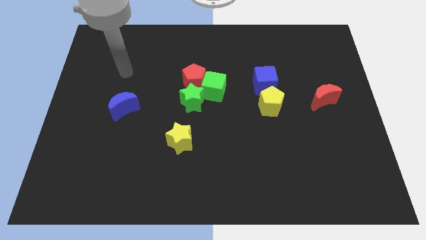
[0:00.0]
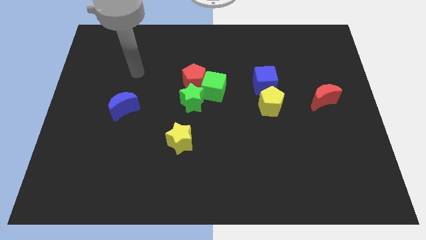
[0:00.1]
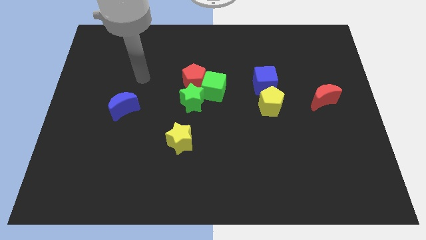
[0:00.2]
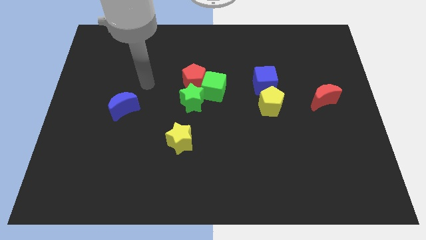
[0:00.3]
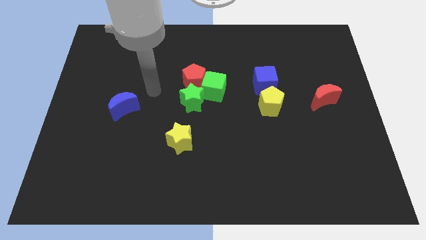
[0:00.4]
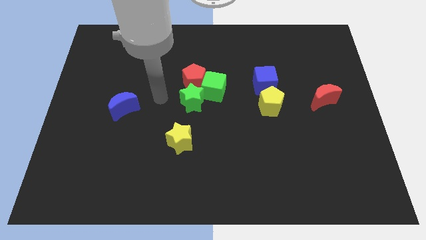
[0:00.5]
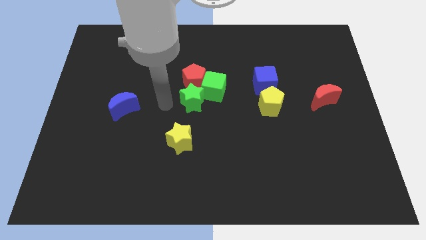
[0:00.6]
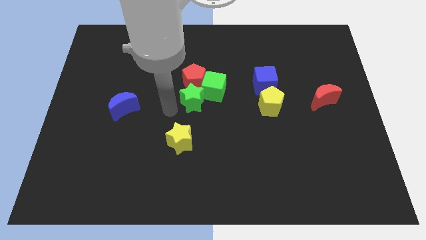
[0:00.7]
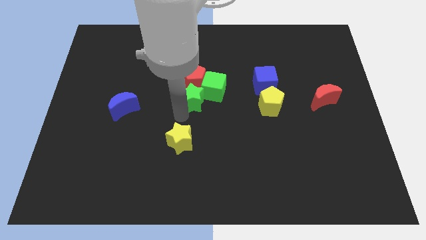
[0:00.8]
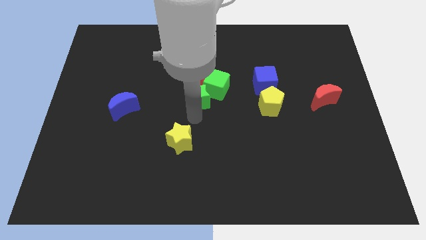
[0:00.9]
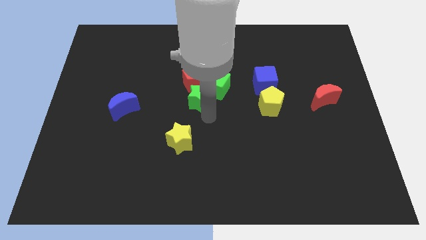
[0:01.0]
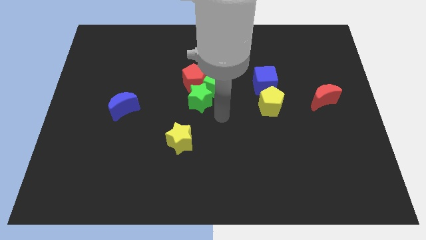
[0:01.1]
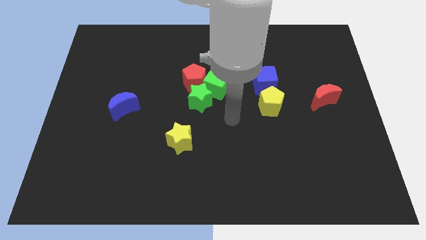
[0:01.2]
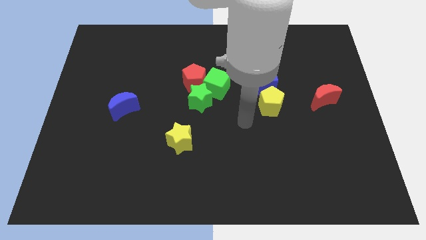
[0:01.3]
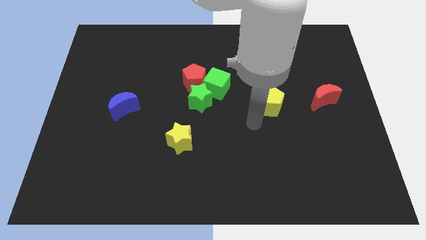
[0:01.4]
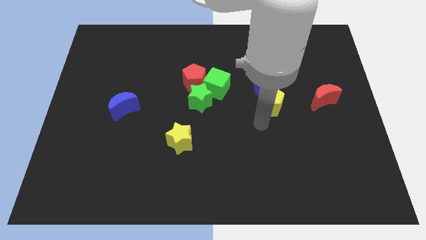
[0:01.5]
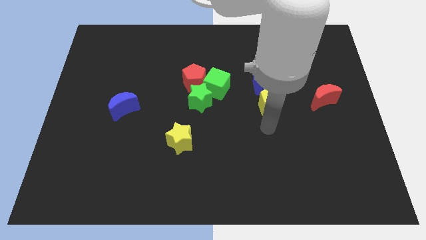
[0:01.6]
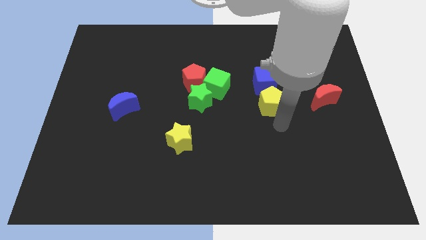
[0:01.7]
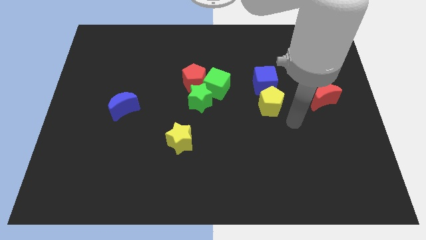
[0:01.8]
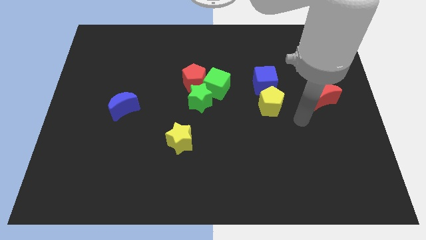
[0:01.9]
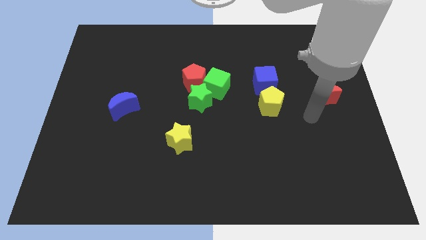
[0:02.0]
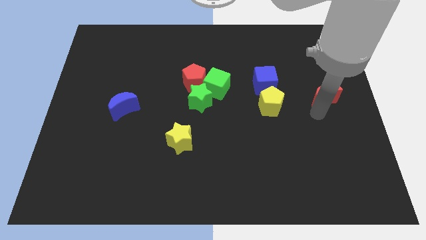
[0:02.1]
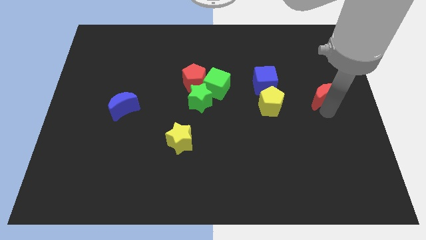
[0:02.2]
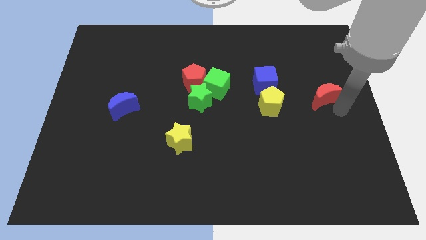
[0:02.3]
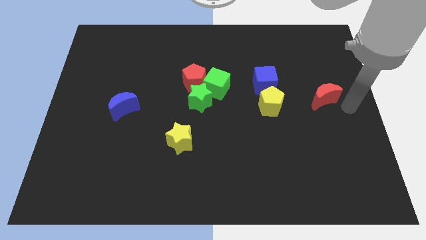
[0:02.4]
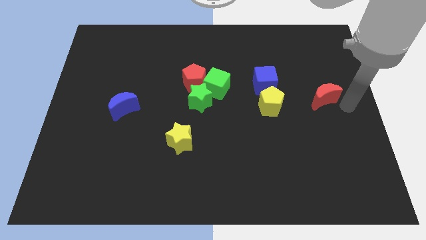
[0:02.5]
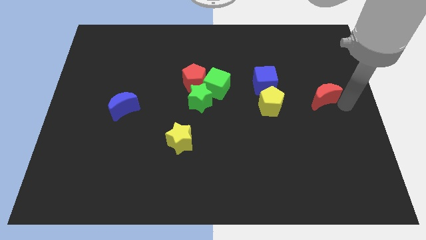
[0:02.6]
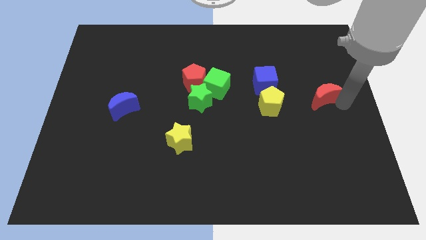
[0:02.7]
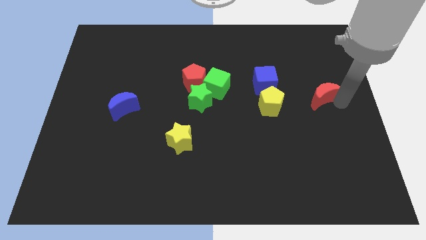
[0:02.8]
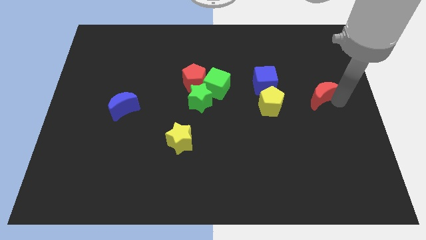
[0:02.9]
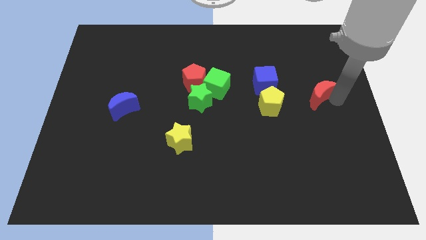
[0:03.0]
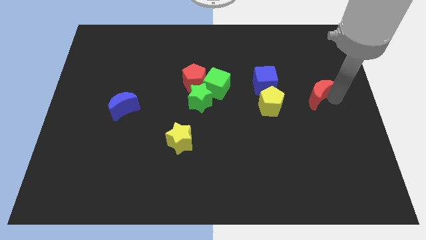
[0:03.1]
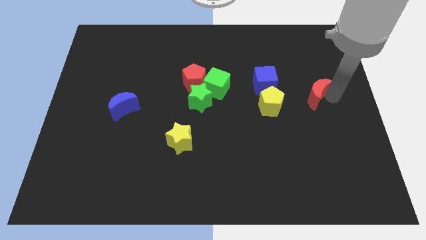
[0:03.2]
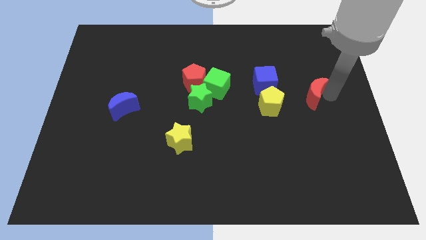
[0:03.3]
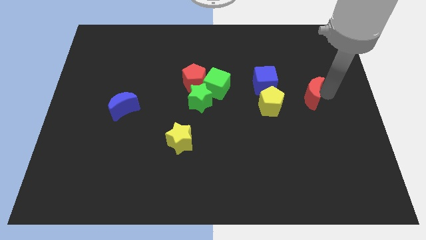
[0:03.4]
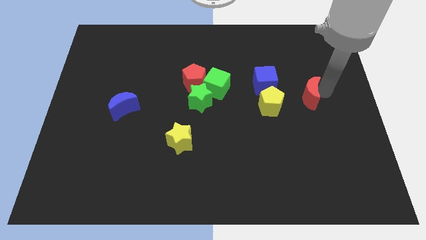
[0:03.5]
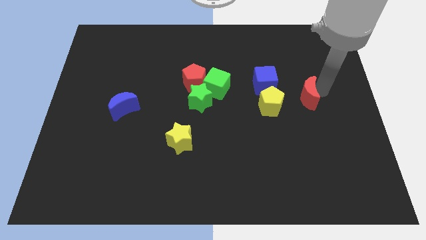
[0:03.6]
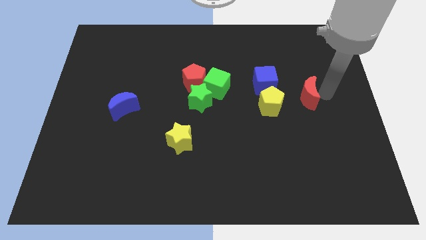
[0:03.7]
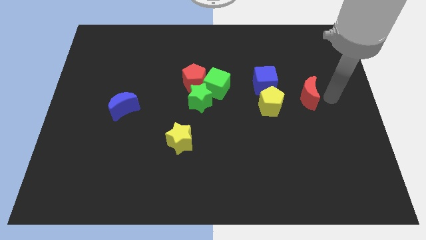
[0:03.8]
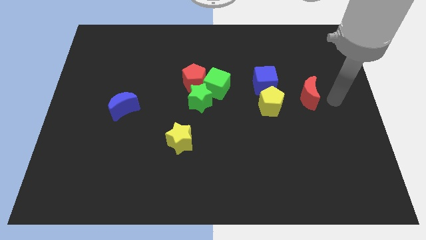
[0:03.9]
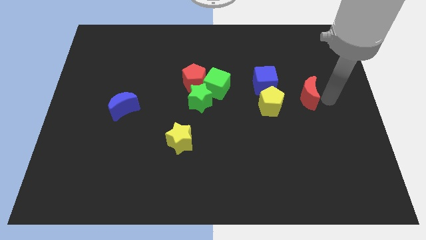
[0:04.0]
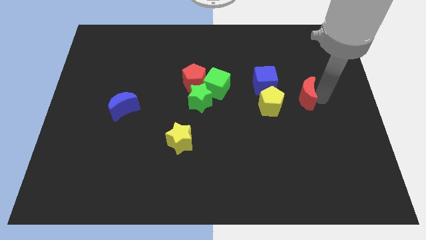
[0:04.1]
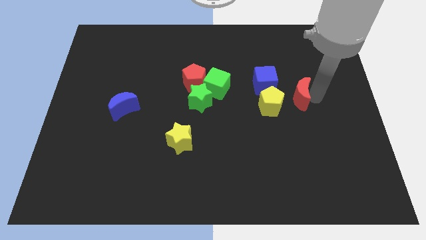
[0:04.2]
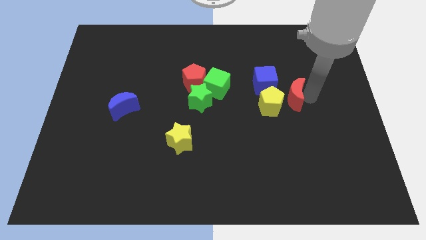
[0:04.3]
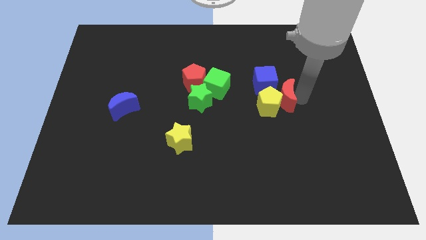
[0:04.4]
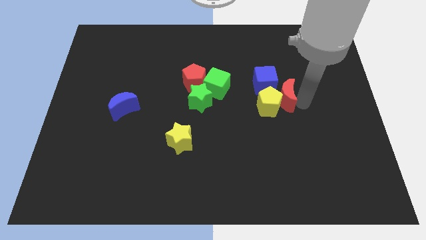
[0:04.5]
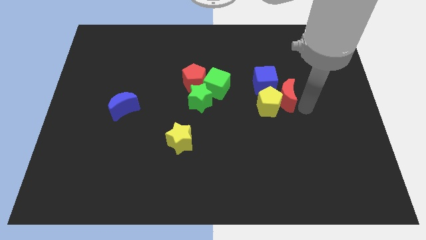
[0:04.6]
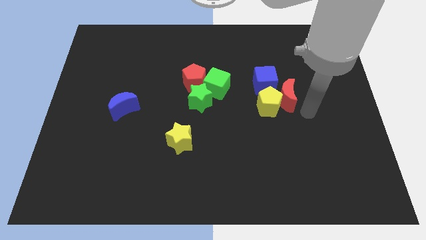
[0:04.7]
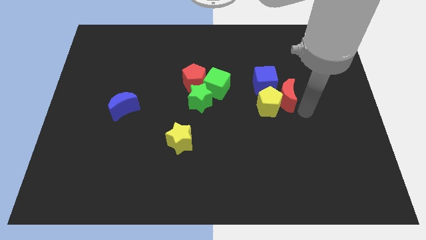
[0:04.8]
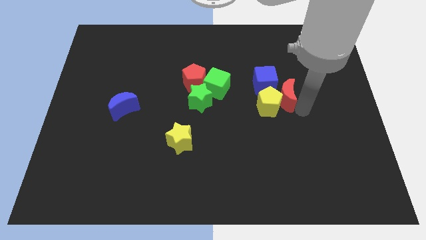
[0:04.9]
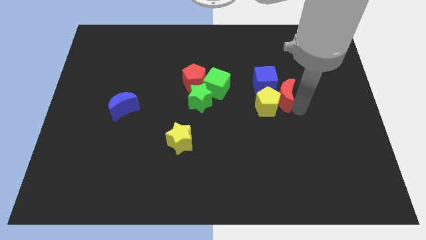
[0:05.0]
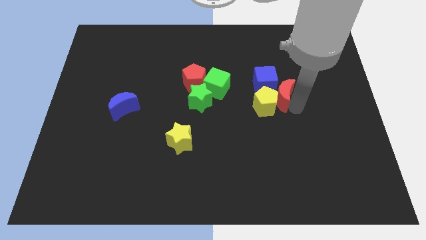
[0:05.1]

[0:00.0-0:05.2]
push the red moon towards the blue cube

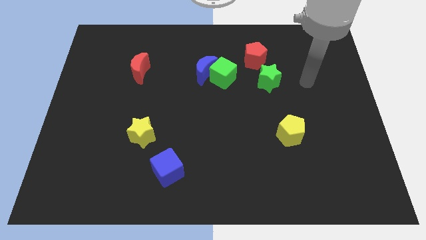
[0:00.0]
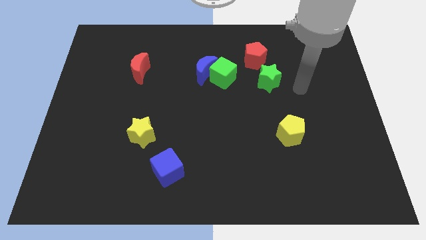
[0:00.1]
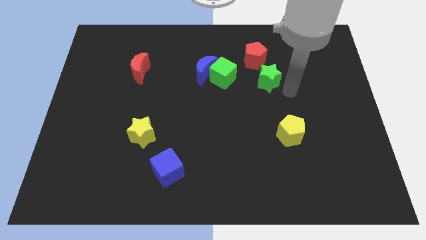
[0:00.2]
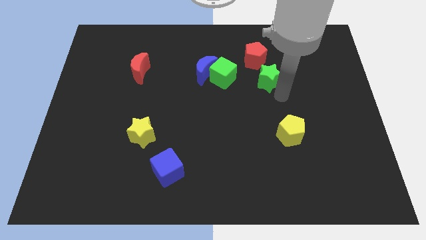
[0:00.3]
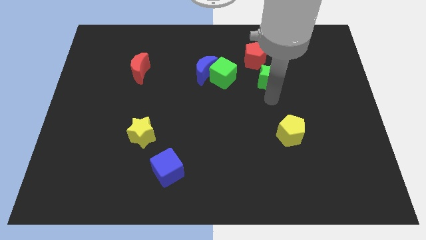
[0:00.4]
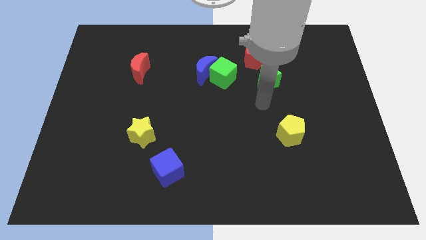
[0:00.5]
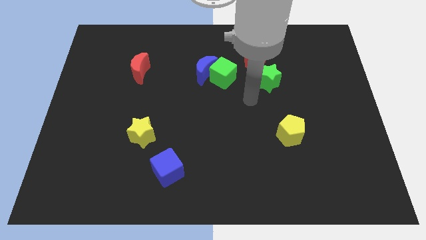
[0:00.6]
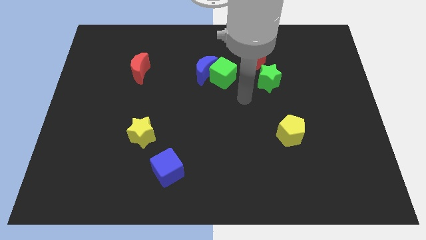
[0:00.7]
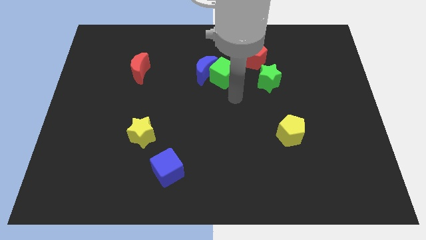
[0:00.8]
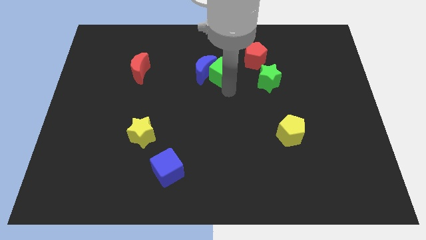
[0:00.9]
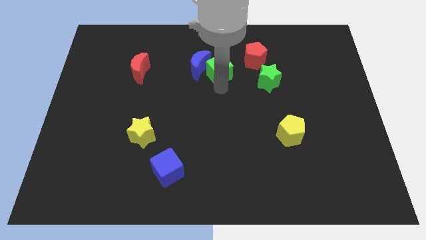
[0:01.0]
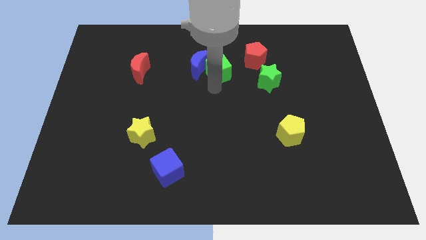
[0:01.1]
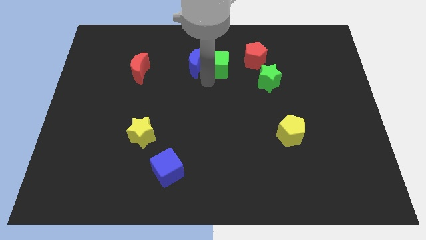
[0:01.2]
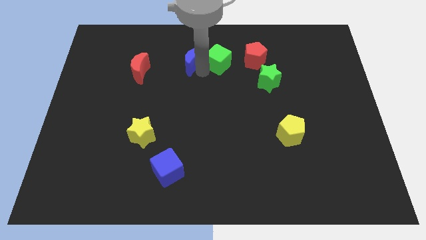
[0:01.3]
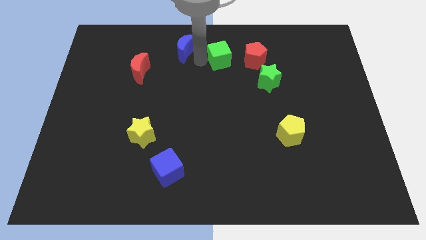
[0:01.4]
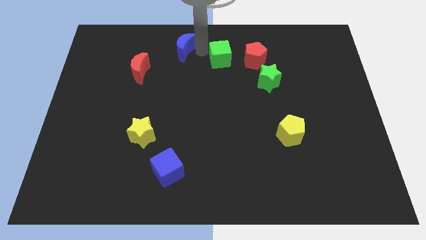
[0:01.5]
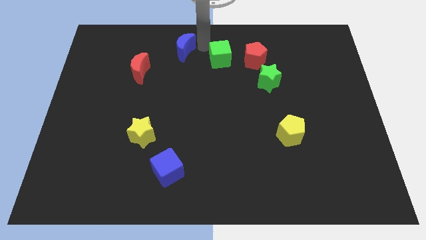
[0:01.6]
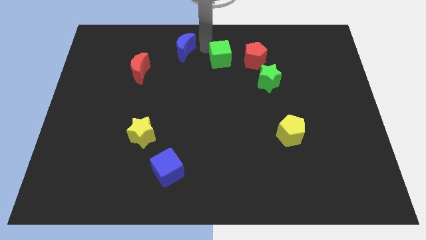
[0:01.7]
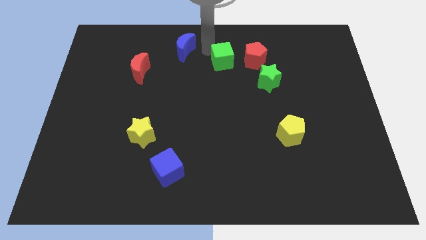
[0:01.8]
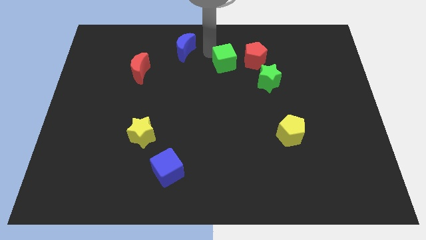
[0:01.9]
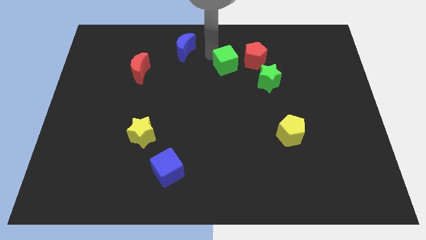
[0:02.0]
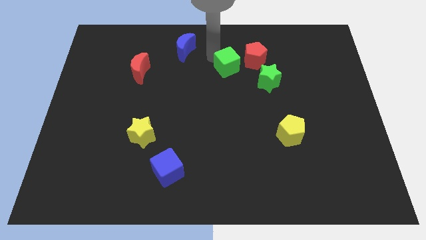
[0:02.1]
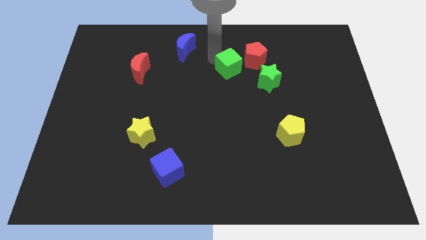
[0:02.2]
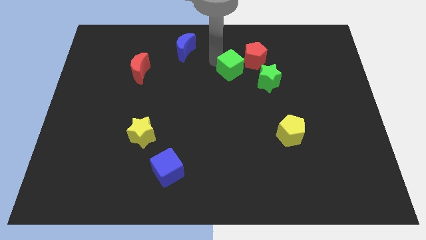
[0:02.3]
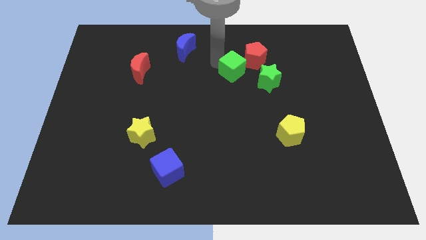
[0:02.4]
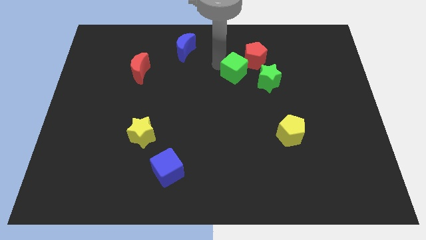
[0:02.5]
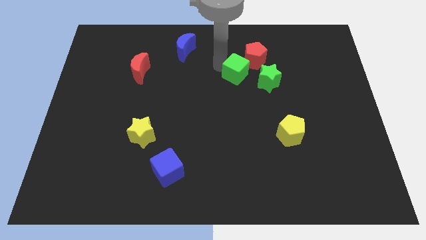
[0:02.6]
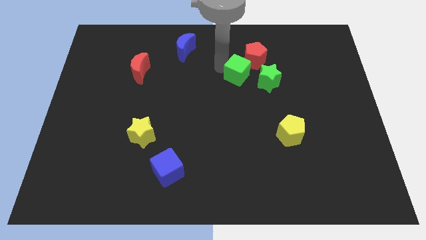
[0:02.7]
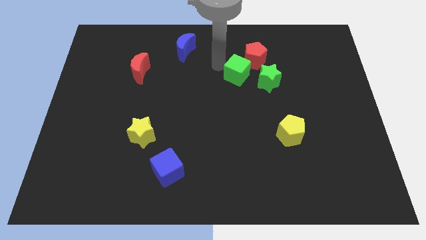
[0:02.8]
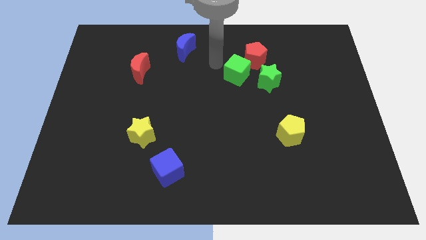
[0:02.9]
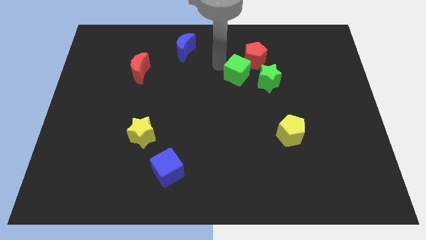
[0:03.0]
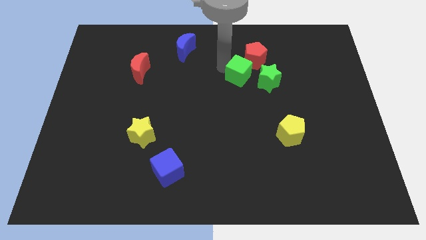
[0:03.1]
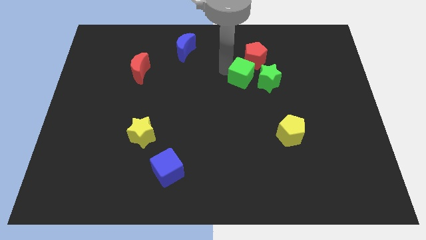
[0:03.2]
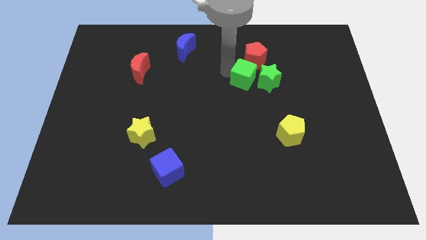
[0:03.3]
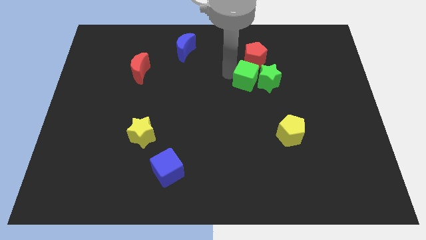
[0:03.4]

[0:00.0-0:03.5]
move the green cube next to the green star

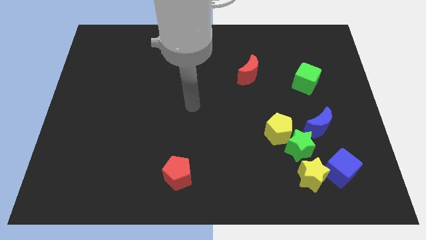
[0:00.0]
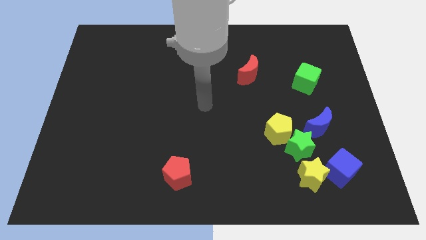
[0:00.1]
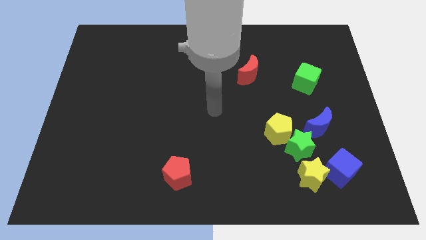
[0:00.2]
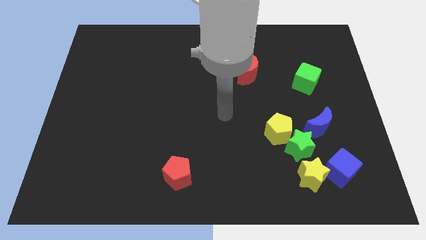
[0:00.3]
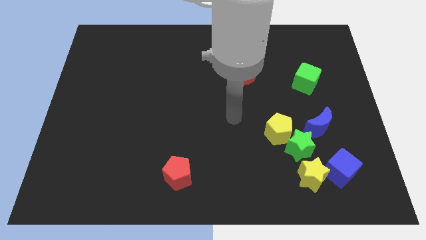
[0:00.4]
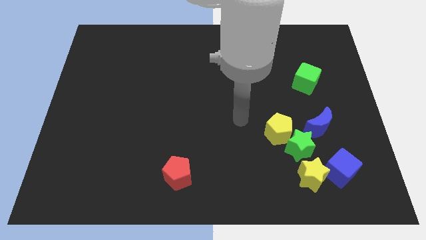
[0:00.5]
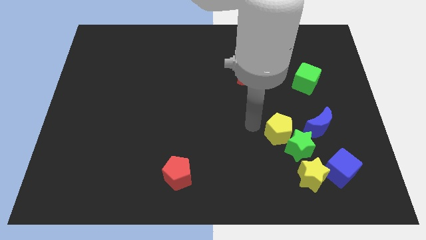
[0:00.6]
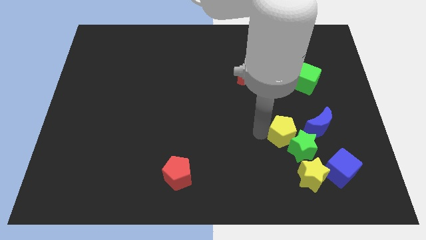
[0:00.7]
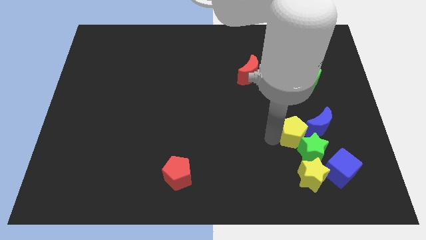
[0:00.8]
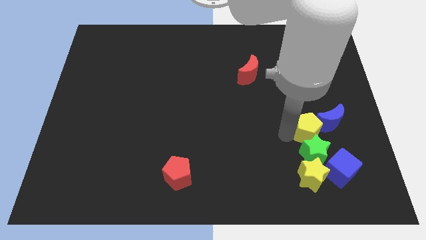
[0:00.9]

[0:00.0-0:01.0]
push the green star towards the blue cube
